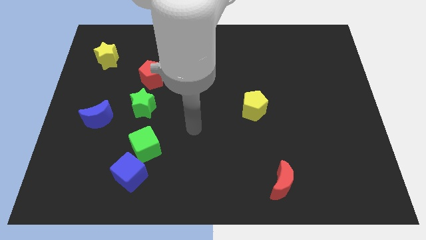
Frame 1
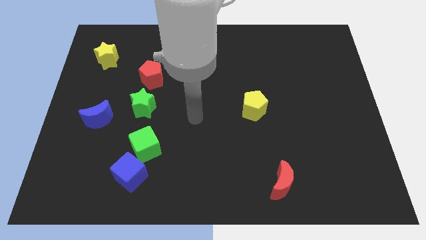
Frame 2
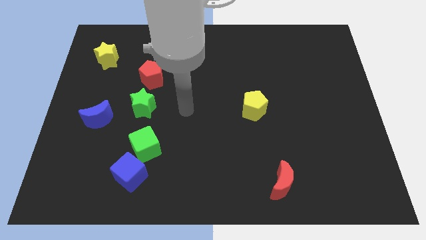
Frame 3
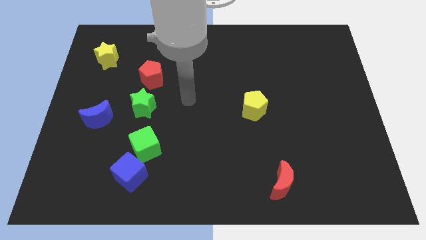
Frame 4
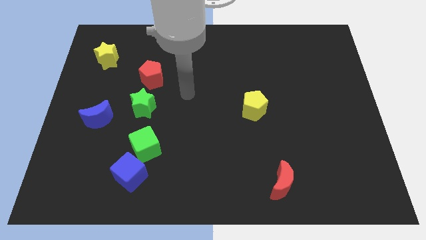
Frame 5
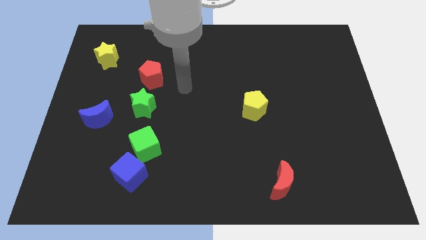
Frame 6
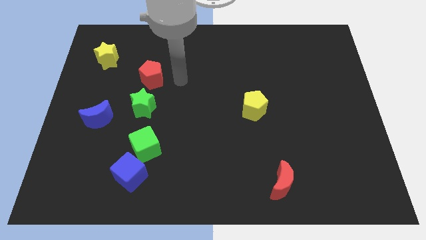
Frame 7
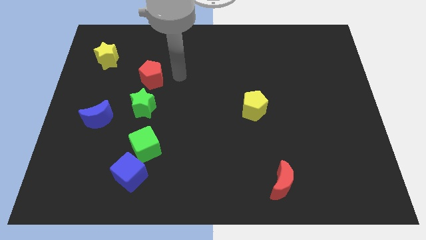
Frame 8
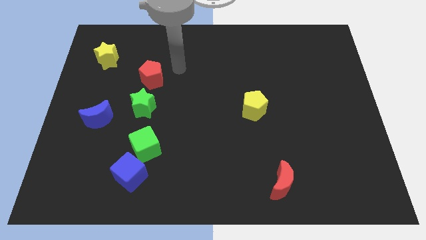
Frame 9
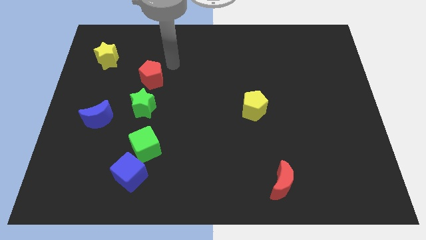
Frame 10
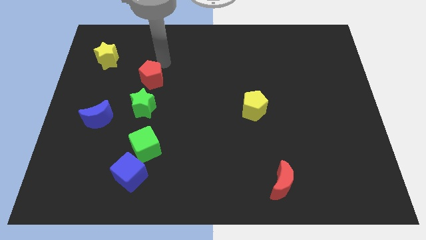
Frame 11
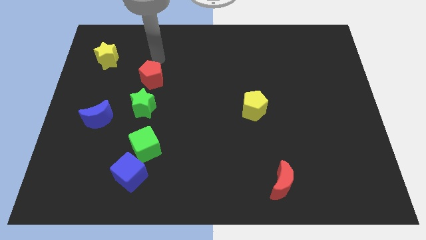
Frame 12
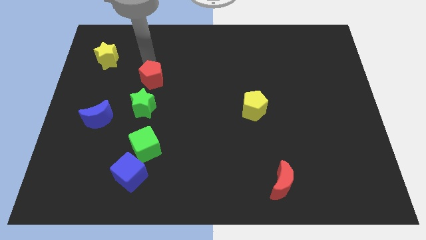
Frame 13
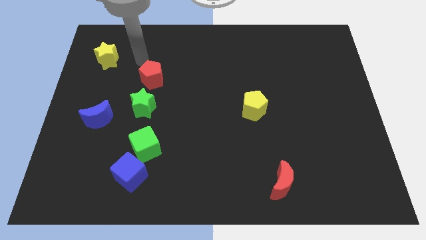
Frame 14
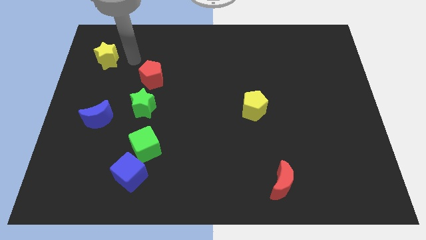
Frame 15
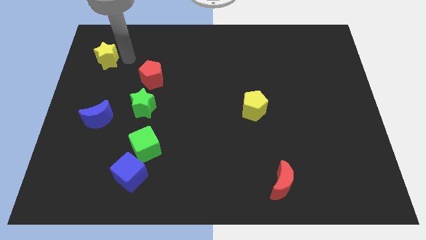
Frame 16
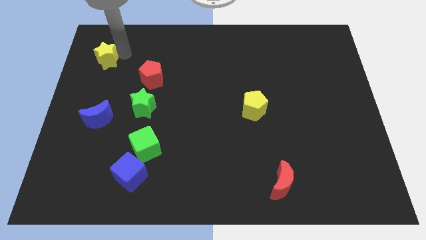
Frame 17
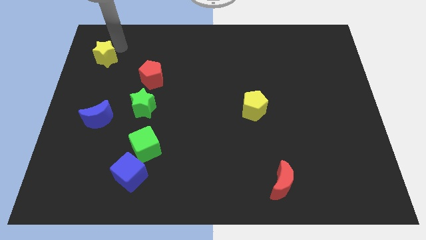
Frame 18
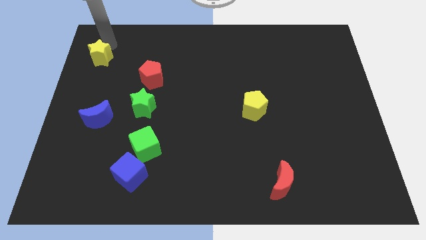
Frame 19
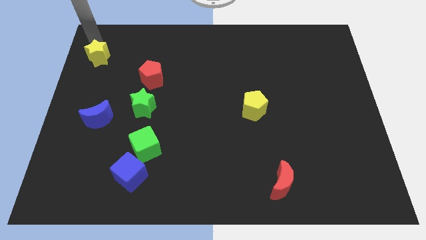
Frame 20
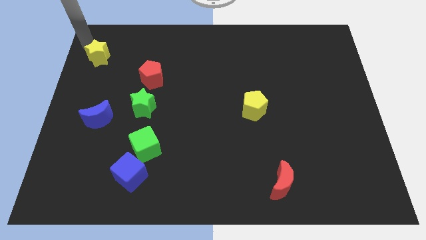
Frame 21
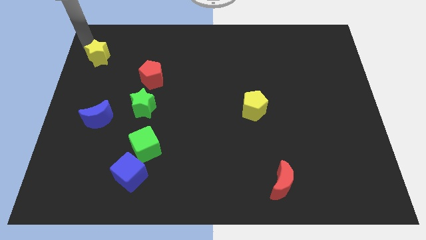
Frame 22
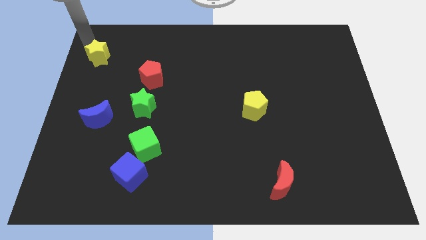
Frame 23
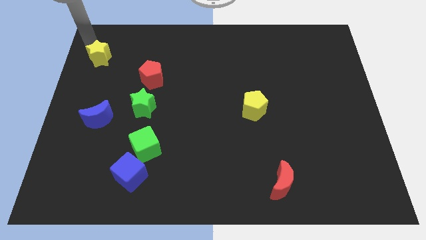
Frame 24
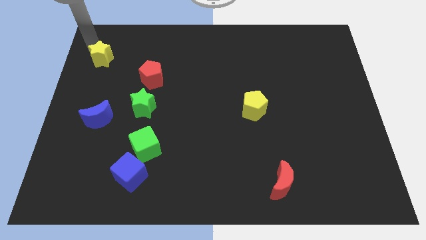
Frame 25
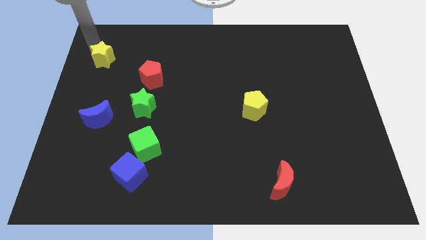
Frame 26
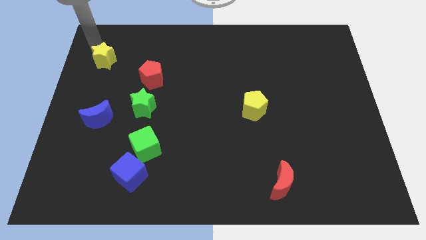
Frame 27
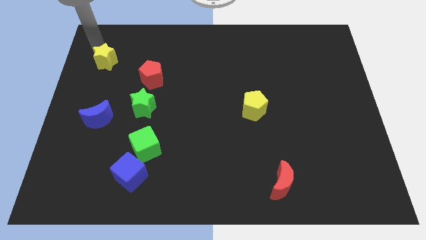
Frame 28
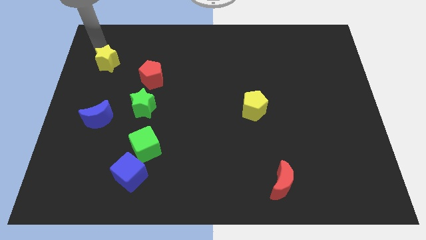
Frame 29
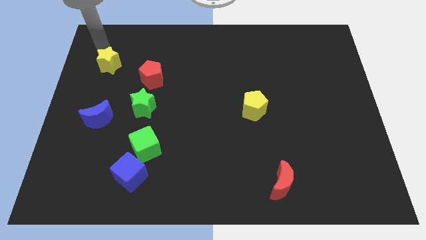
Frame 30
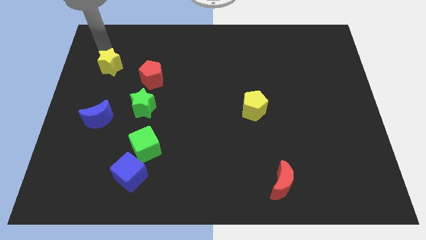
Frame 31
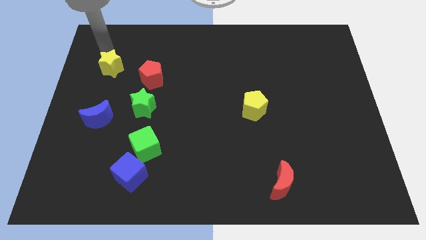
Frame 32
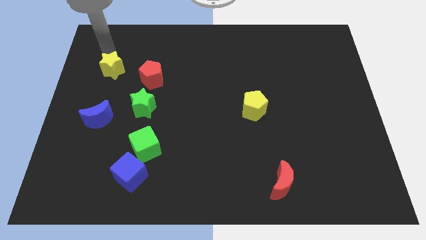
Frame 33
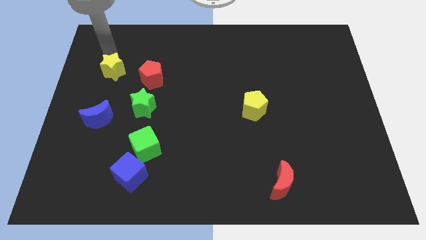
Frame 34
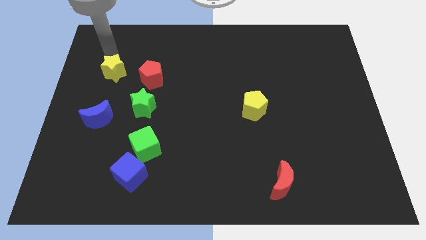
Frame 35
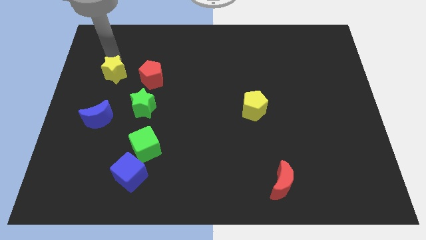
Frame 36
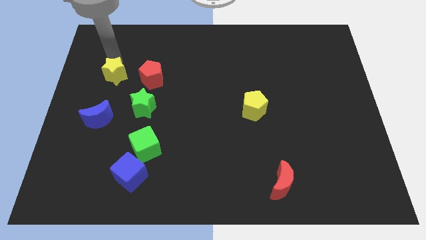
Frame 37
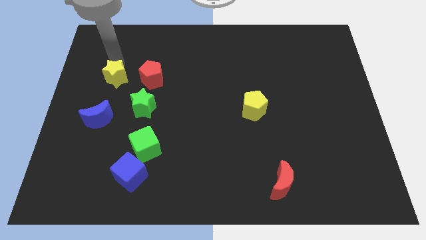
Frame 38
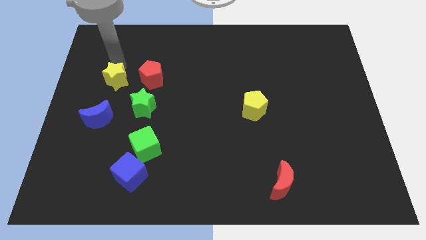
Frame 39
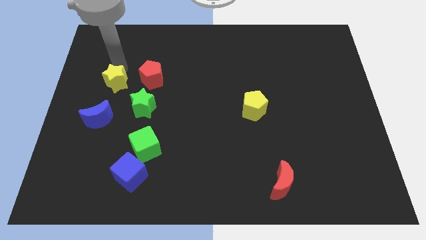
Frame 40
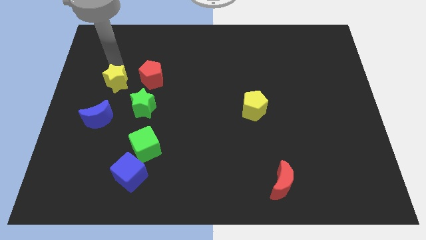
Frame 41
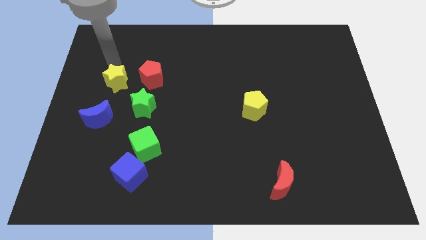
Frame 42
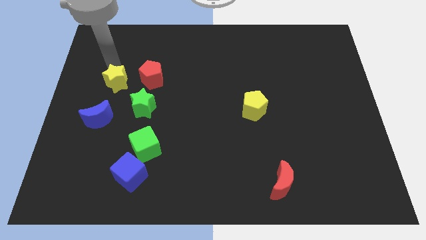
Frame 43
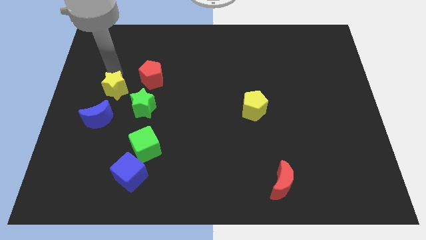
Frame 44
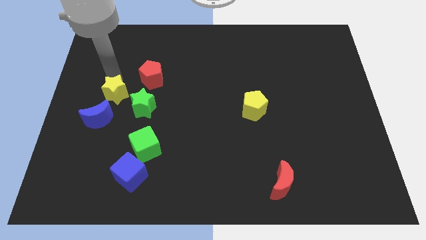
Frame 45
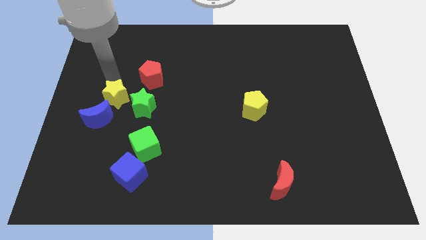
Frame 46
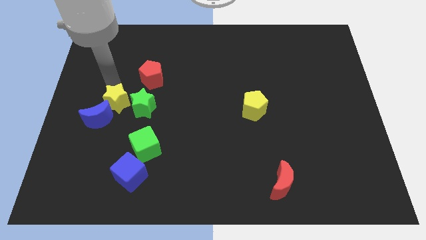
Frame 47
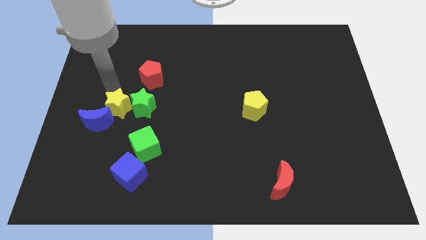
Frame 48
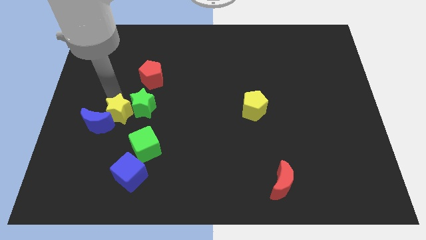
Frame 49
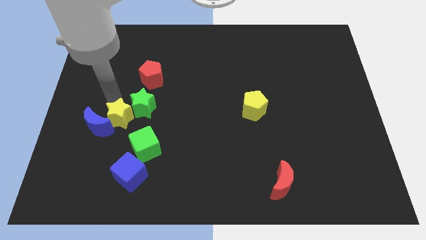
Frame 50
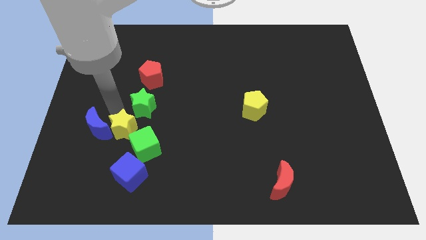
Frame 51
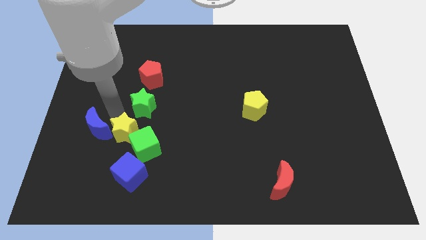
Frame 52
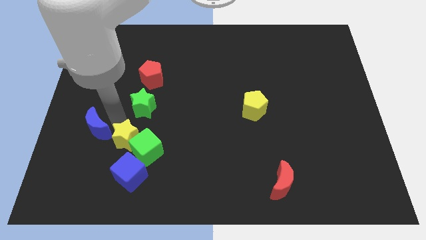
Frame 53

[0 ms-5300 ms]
put the yellow star close to the green cube

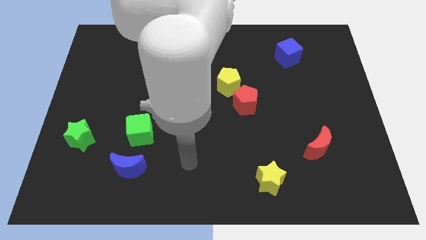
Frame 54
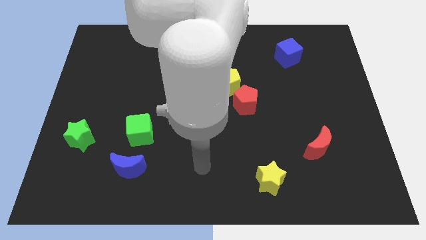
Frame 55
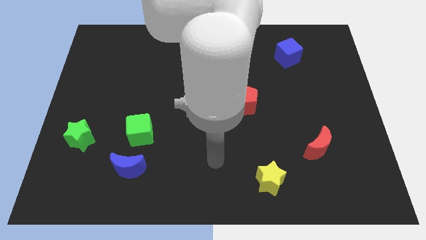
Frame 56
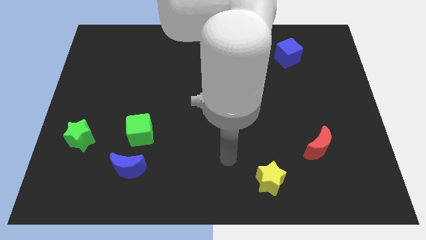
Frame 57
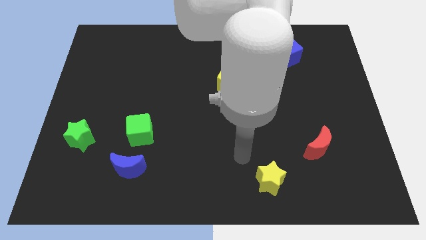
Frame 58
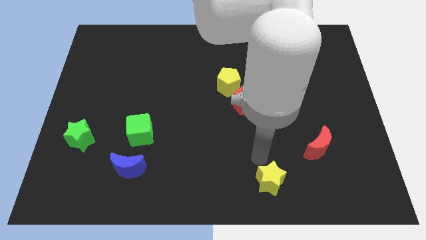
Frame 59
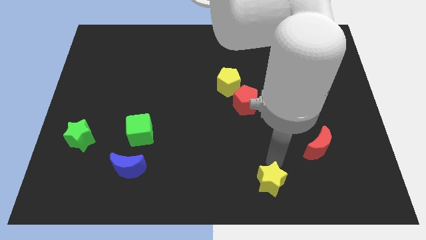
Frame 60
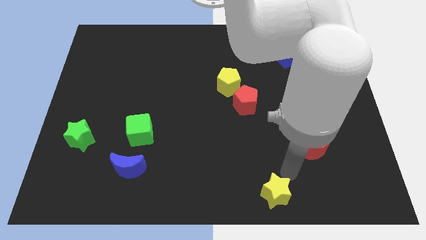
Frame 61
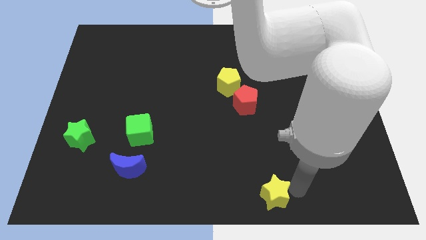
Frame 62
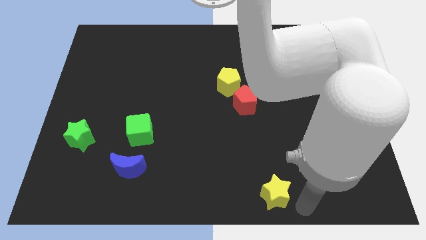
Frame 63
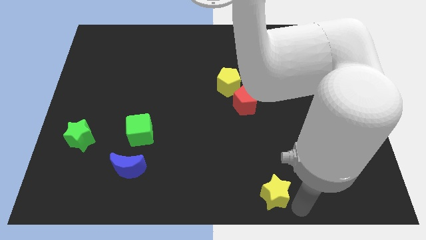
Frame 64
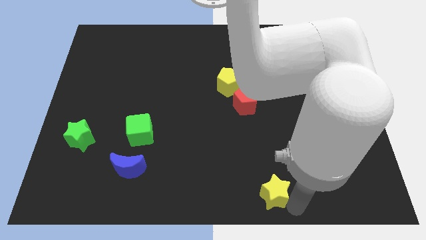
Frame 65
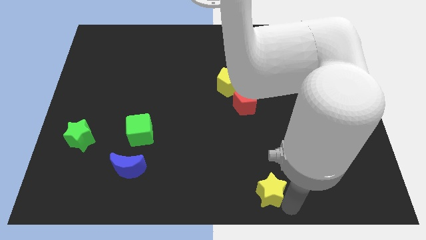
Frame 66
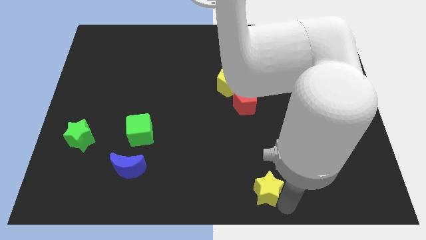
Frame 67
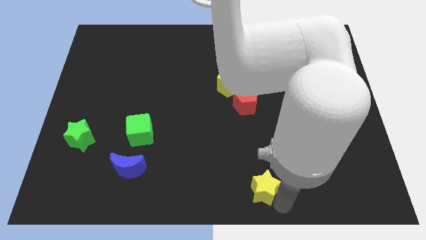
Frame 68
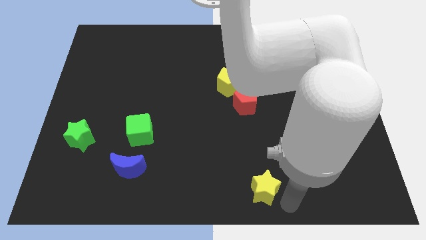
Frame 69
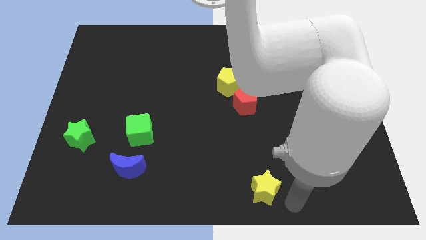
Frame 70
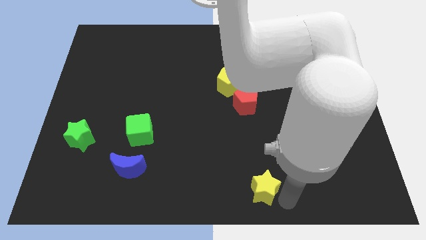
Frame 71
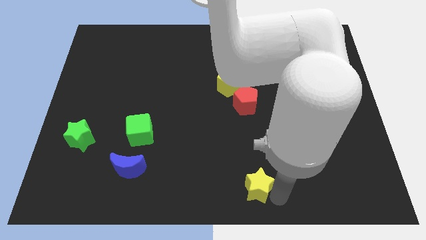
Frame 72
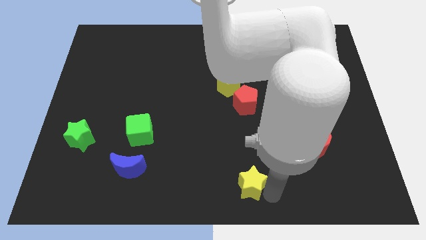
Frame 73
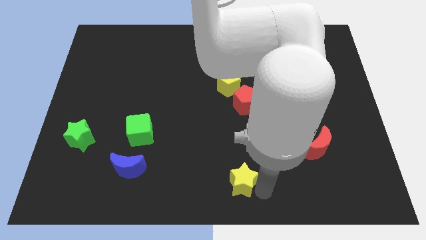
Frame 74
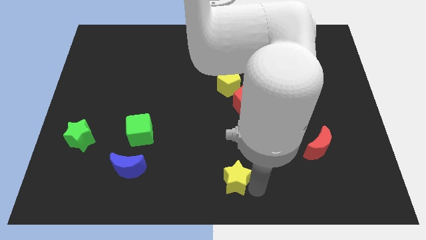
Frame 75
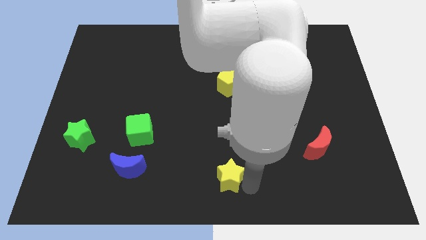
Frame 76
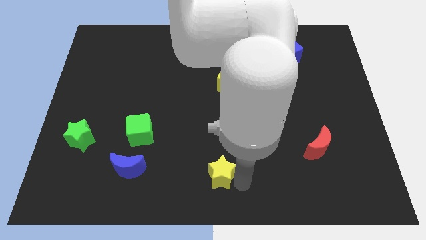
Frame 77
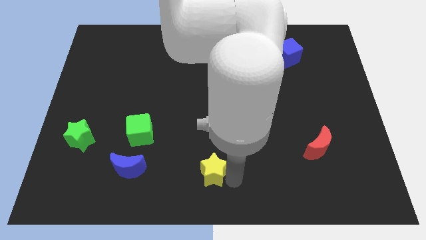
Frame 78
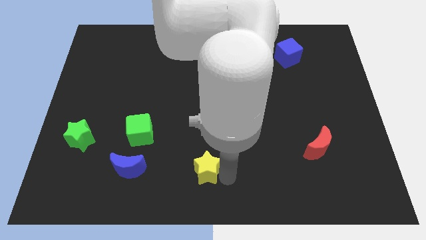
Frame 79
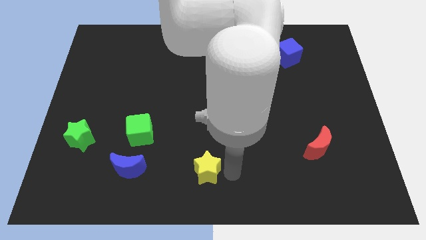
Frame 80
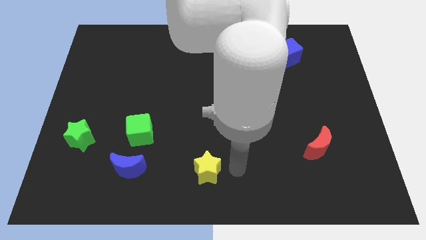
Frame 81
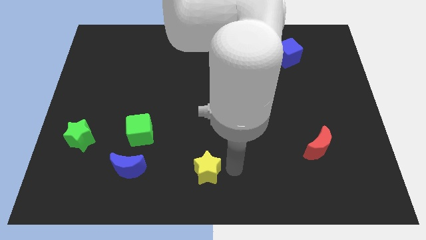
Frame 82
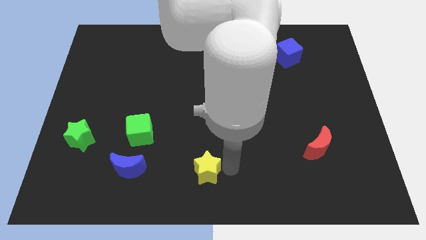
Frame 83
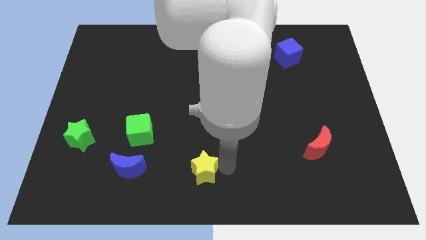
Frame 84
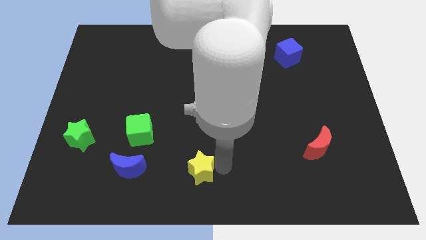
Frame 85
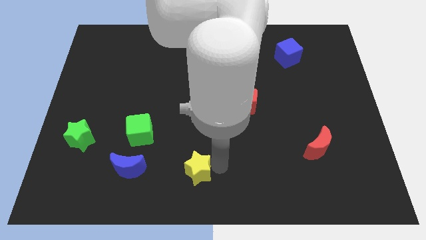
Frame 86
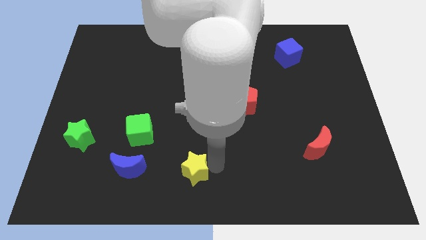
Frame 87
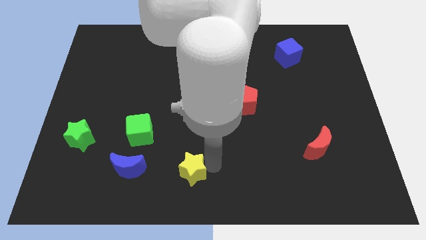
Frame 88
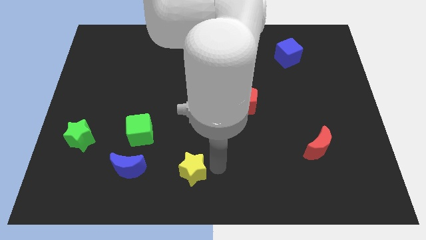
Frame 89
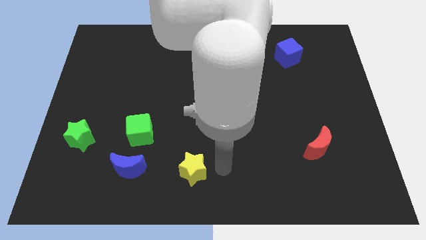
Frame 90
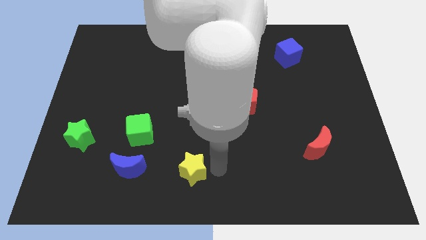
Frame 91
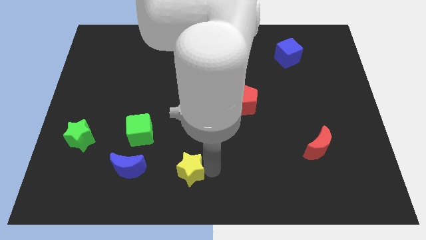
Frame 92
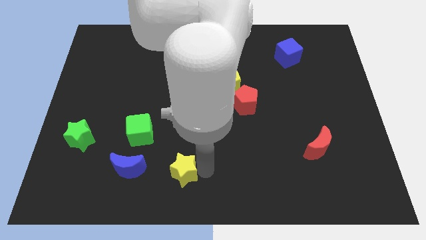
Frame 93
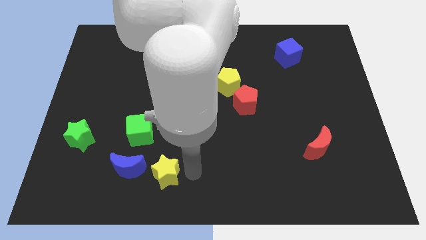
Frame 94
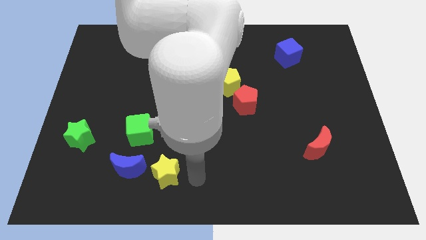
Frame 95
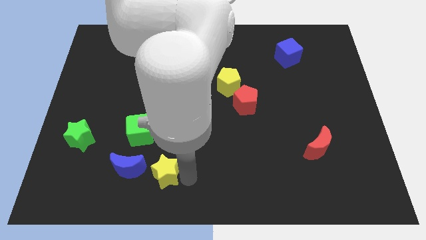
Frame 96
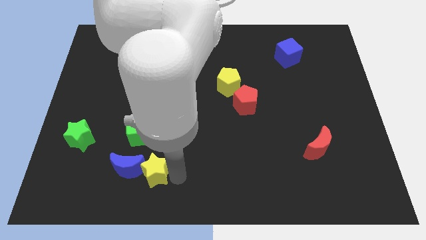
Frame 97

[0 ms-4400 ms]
push the yellow star to the blue moon
